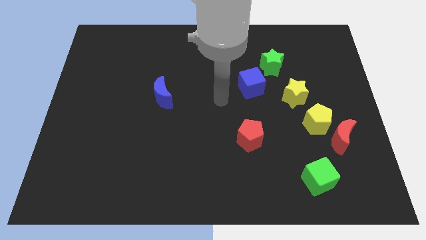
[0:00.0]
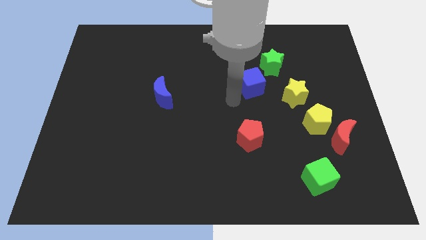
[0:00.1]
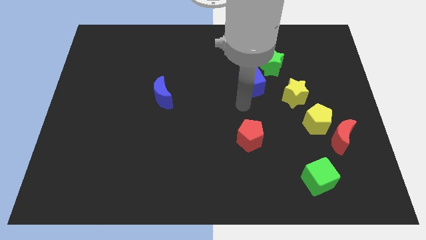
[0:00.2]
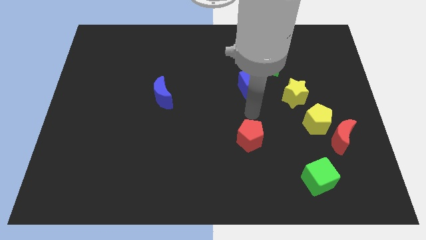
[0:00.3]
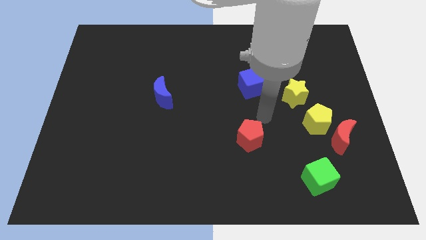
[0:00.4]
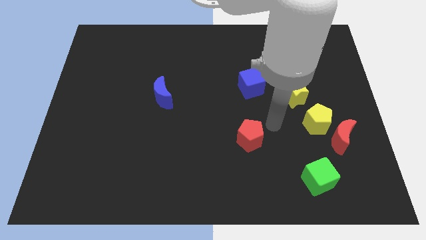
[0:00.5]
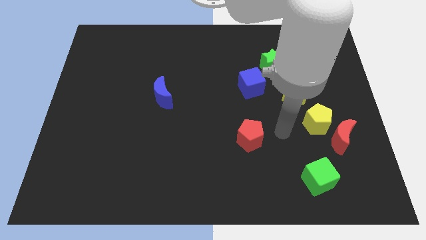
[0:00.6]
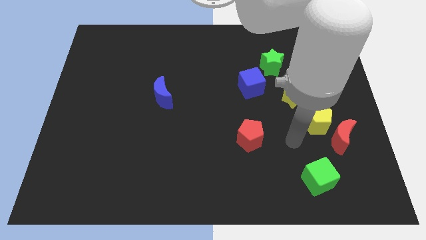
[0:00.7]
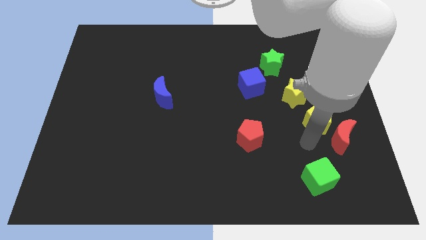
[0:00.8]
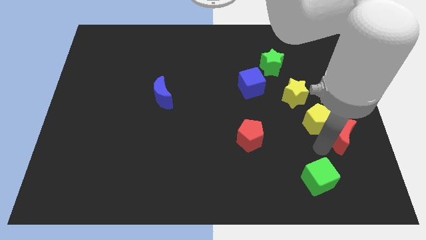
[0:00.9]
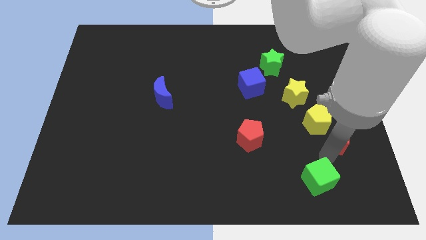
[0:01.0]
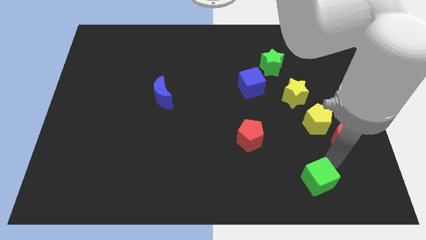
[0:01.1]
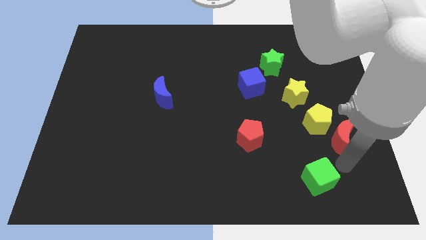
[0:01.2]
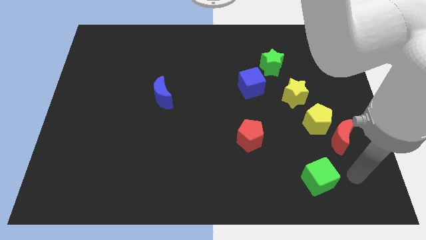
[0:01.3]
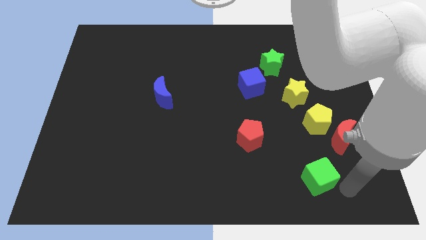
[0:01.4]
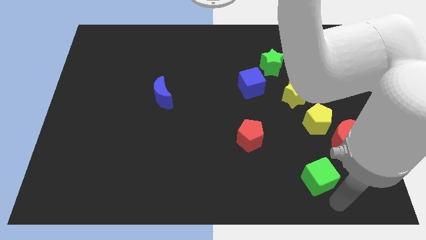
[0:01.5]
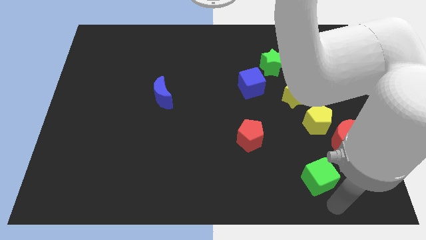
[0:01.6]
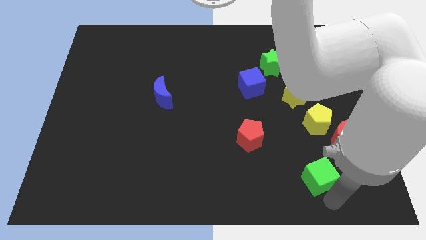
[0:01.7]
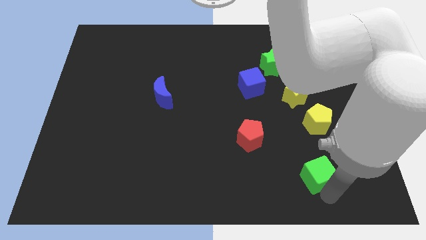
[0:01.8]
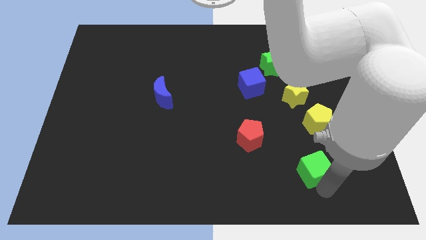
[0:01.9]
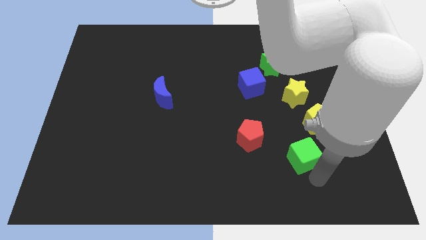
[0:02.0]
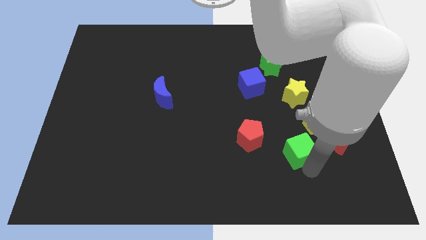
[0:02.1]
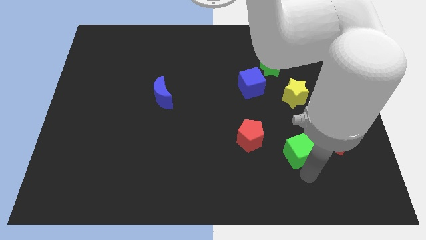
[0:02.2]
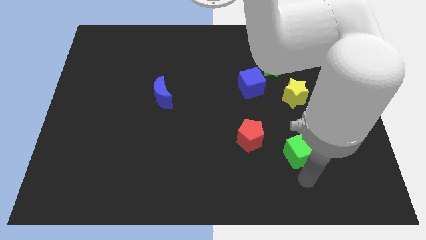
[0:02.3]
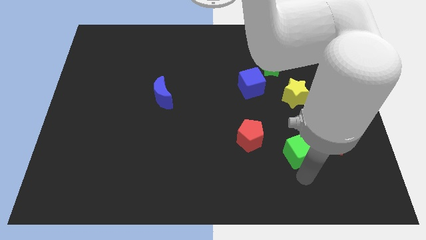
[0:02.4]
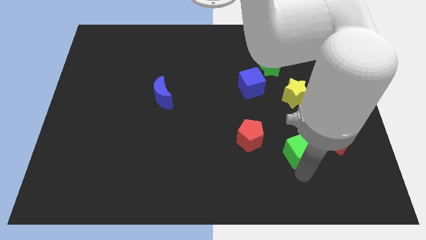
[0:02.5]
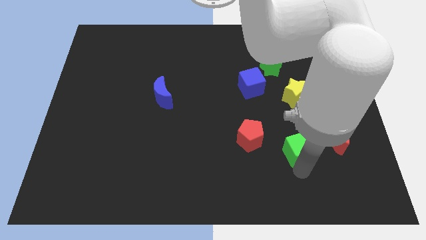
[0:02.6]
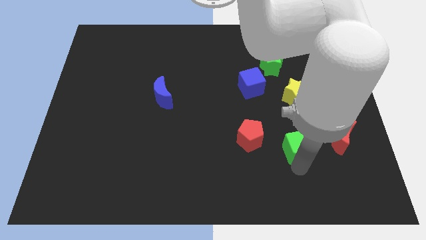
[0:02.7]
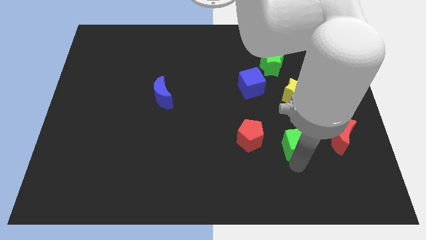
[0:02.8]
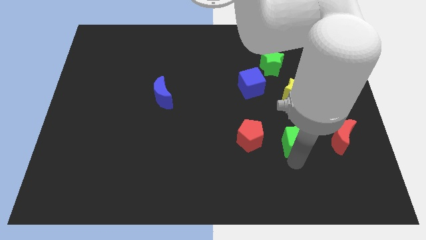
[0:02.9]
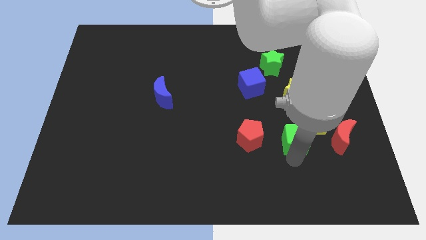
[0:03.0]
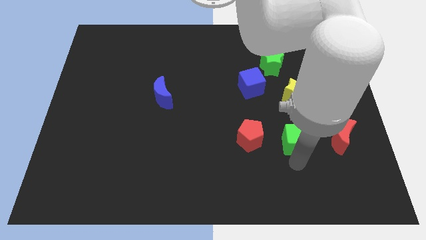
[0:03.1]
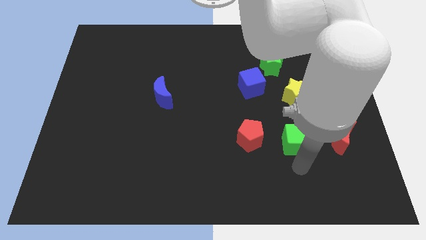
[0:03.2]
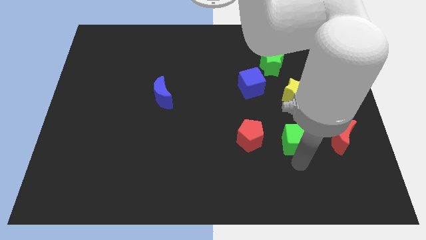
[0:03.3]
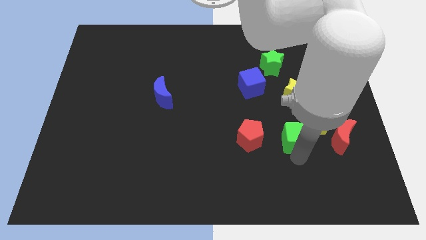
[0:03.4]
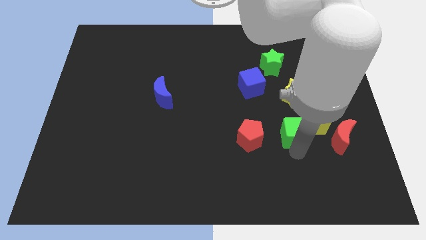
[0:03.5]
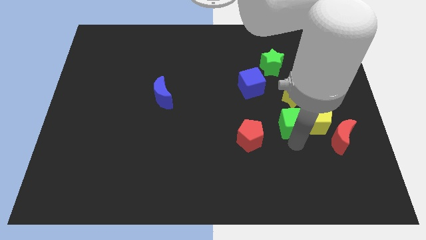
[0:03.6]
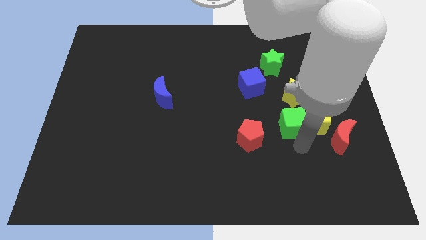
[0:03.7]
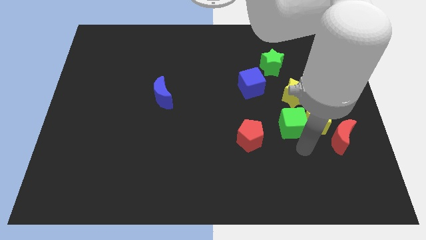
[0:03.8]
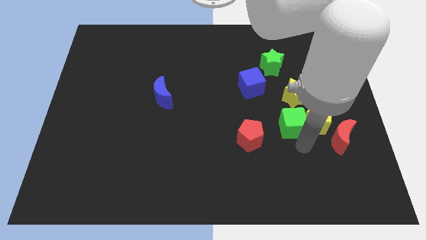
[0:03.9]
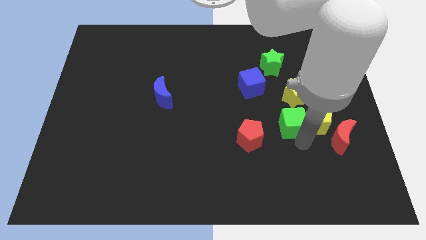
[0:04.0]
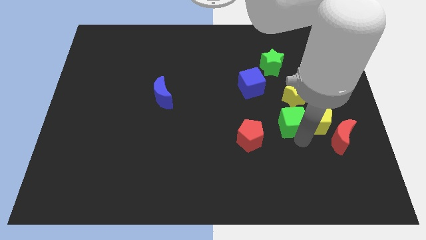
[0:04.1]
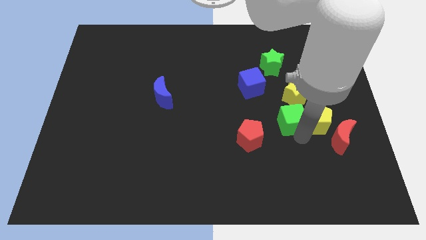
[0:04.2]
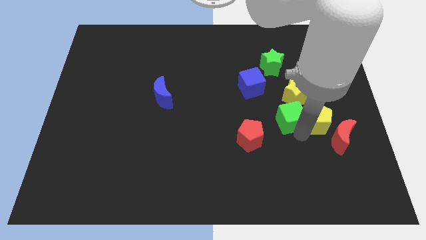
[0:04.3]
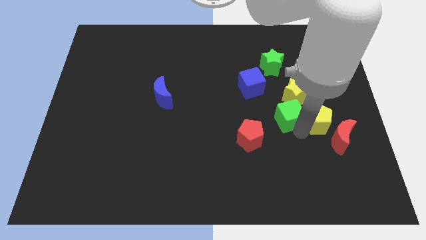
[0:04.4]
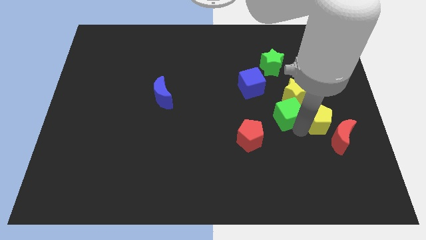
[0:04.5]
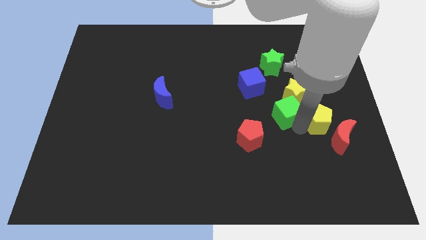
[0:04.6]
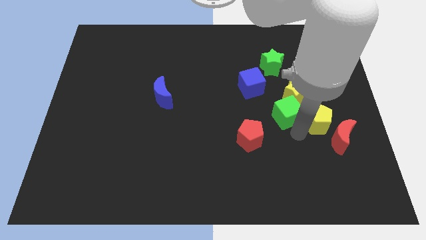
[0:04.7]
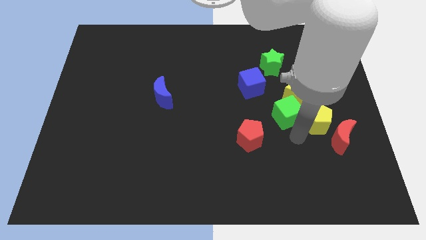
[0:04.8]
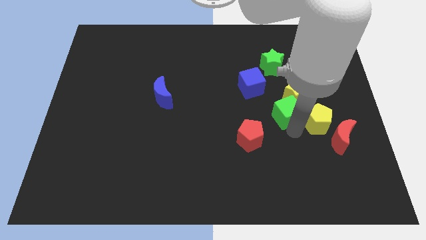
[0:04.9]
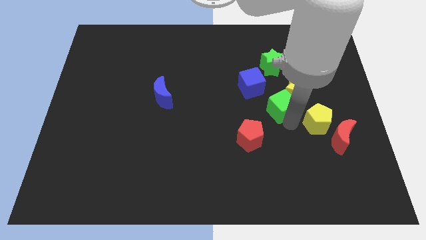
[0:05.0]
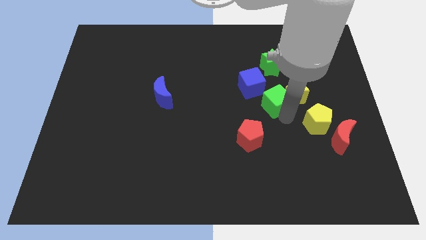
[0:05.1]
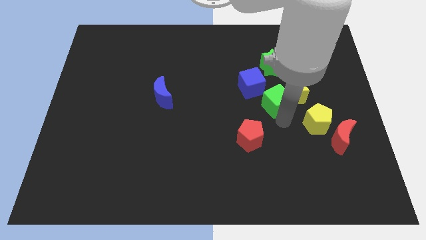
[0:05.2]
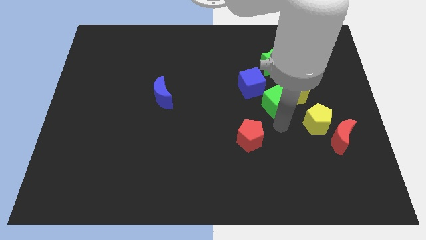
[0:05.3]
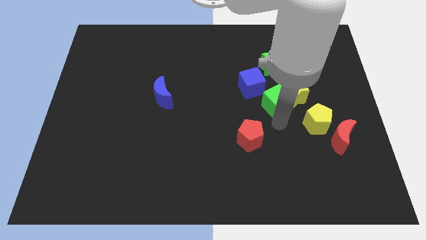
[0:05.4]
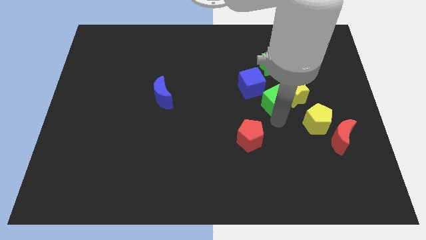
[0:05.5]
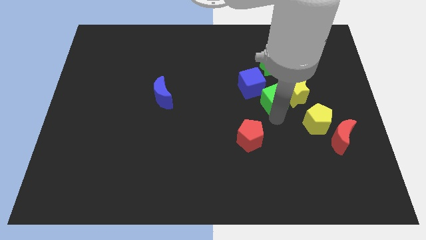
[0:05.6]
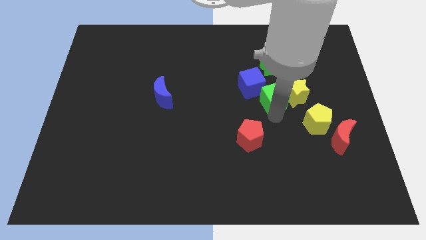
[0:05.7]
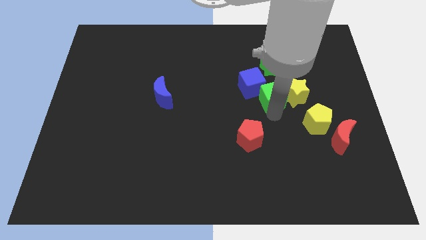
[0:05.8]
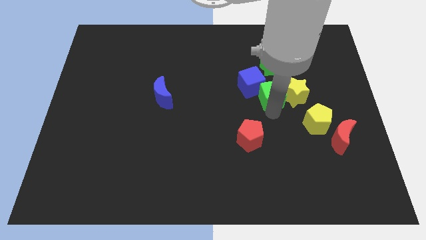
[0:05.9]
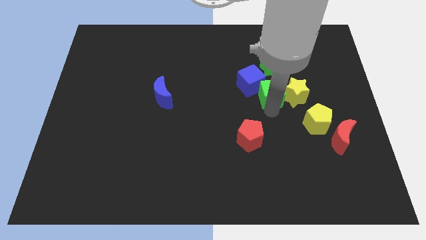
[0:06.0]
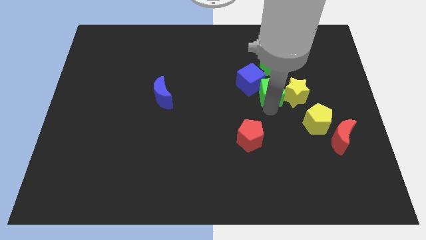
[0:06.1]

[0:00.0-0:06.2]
slide the green cube up

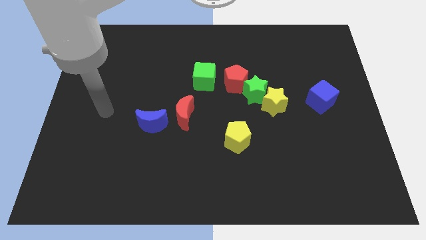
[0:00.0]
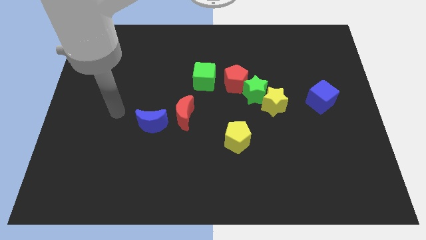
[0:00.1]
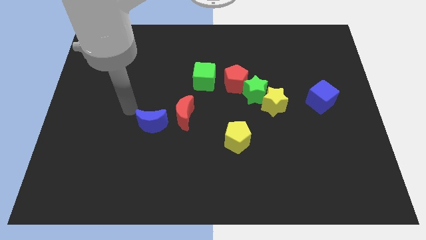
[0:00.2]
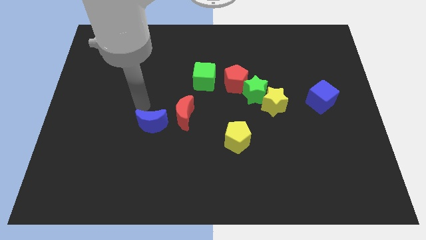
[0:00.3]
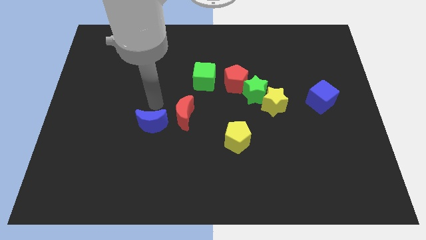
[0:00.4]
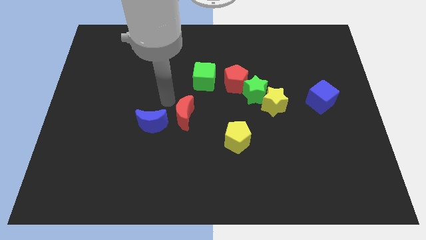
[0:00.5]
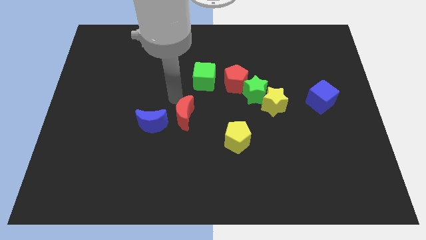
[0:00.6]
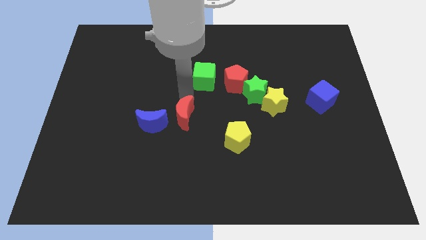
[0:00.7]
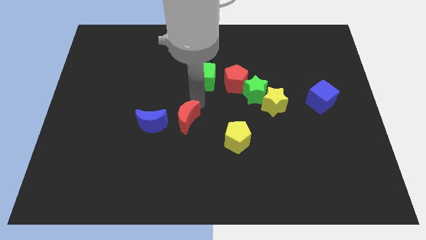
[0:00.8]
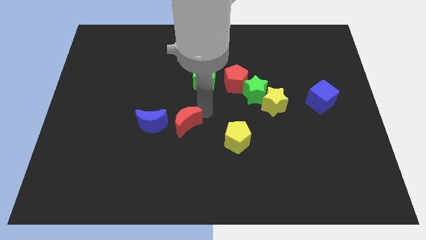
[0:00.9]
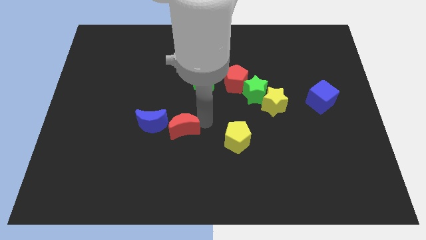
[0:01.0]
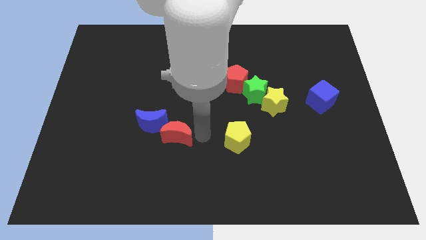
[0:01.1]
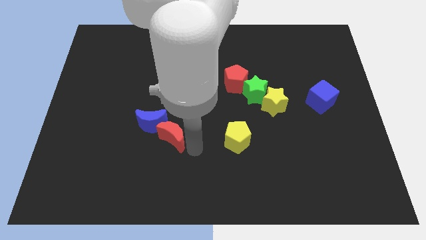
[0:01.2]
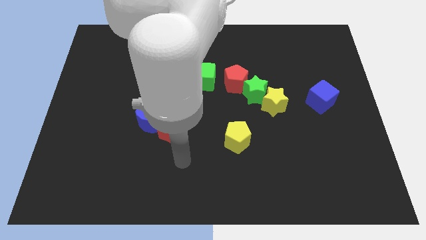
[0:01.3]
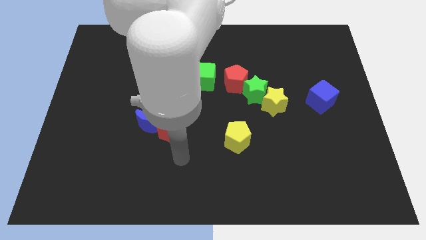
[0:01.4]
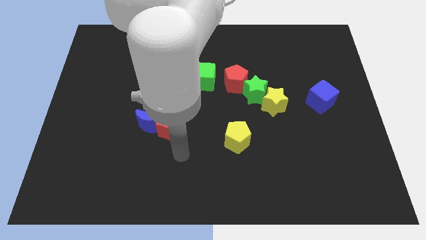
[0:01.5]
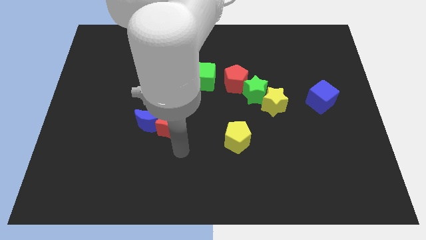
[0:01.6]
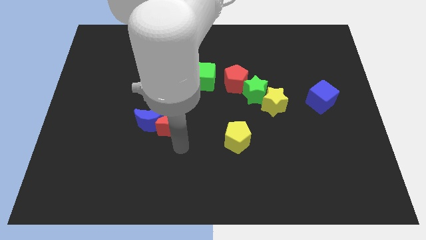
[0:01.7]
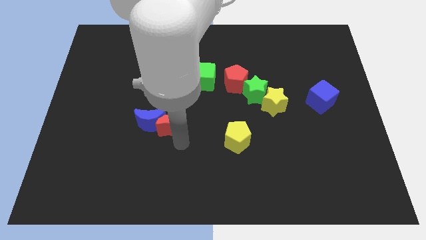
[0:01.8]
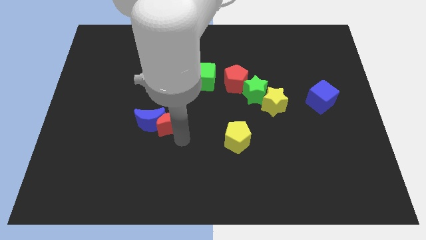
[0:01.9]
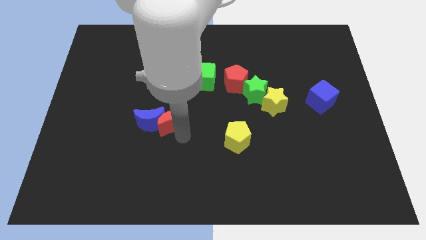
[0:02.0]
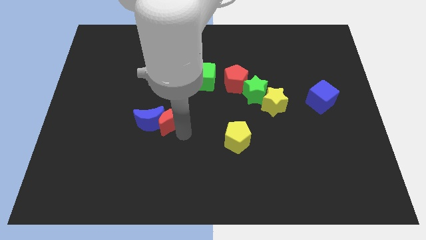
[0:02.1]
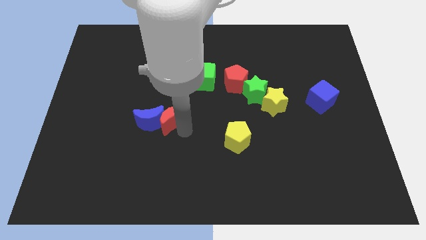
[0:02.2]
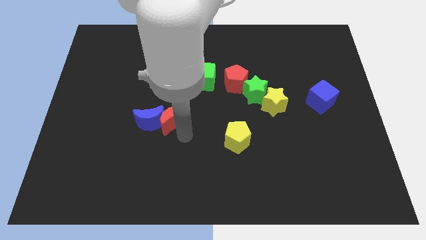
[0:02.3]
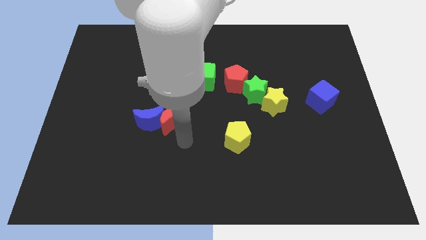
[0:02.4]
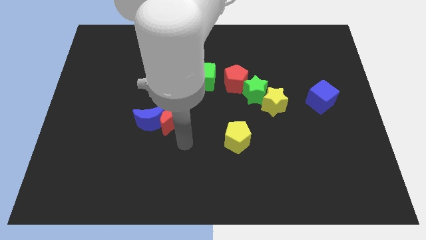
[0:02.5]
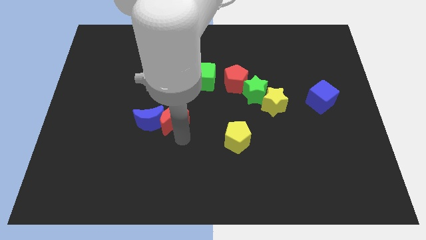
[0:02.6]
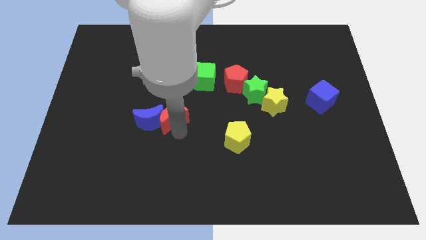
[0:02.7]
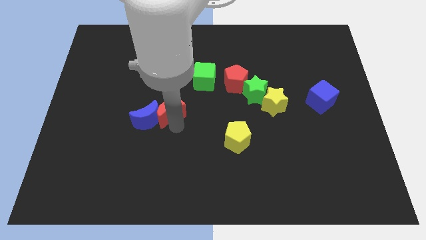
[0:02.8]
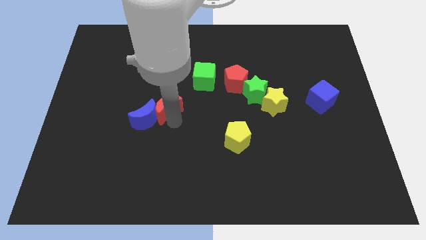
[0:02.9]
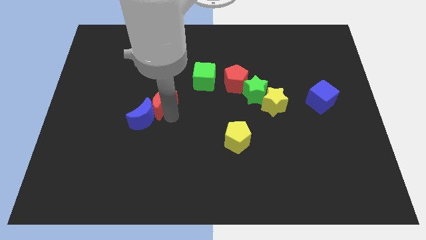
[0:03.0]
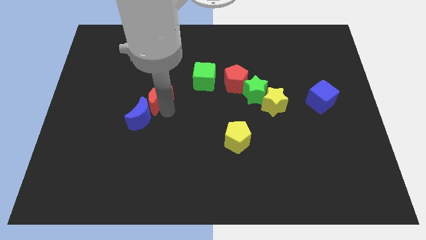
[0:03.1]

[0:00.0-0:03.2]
slightly push the red moon diagonally upwards and to the left
